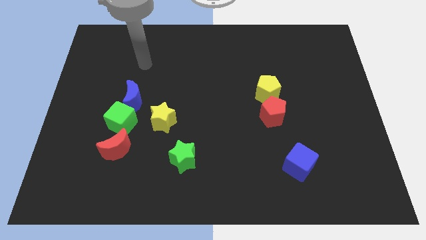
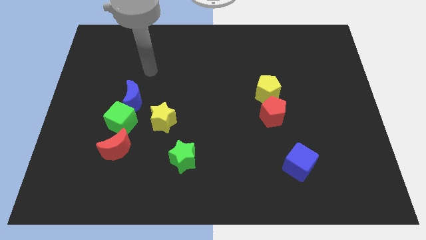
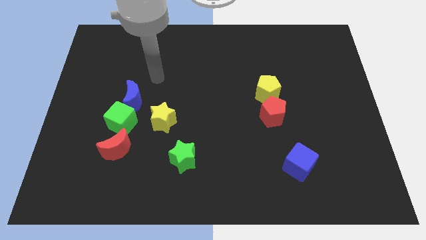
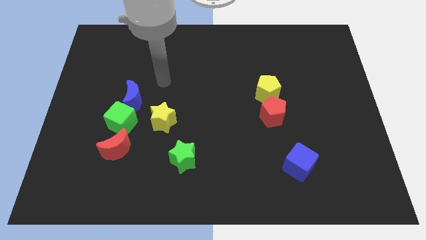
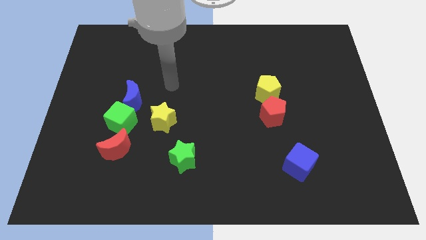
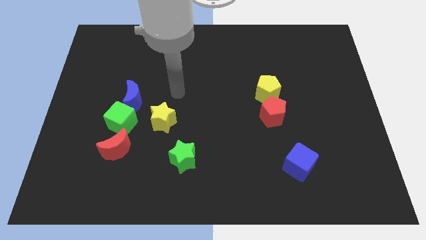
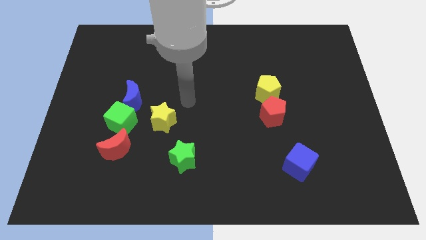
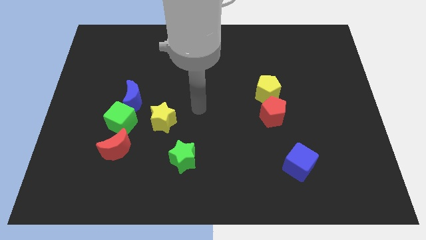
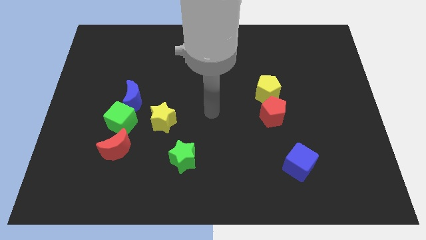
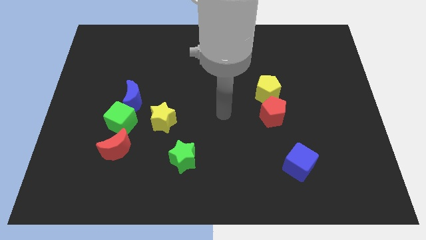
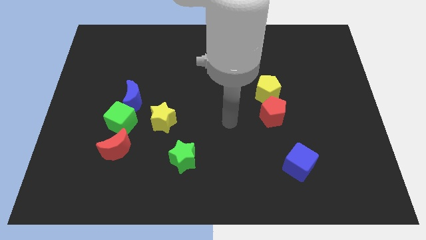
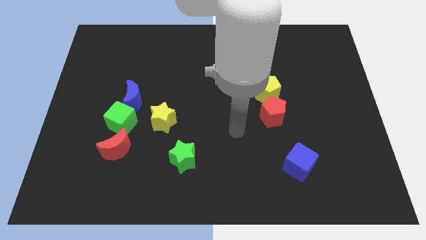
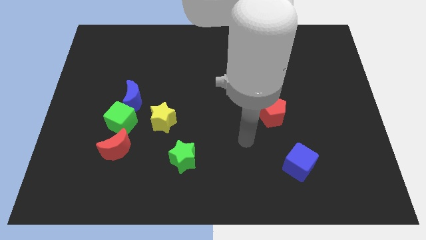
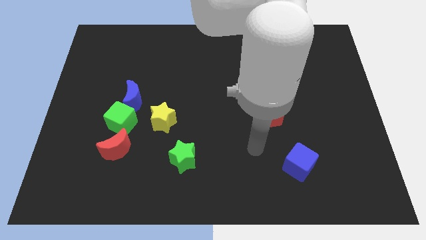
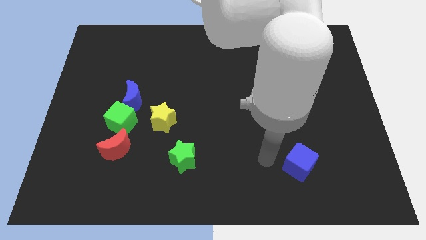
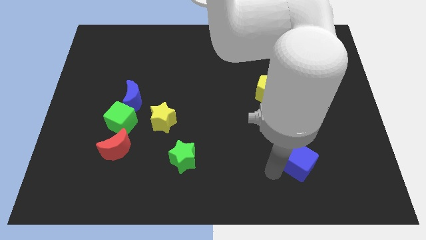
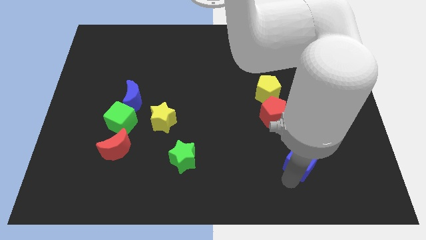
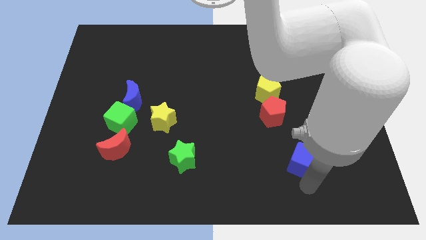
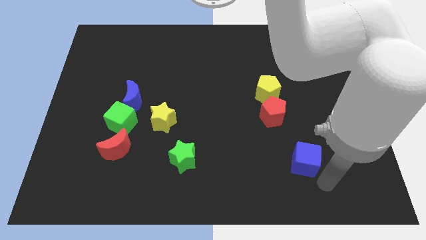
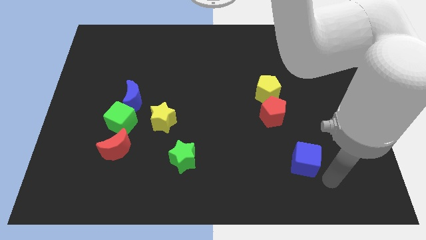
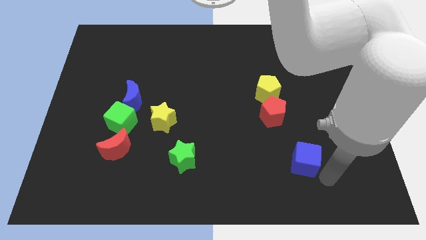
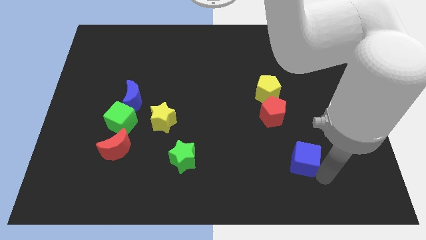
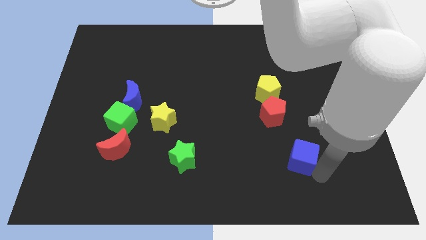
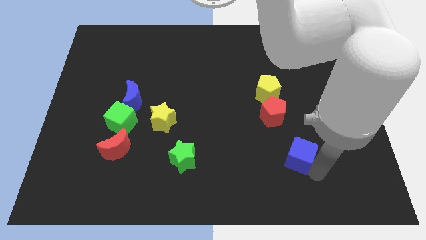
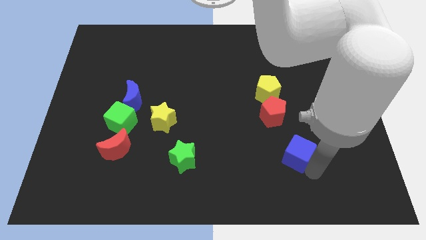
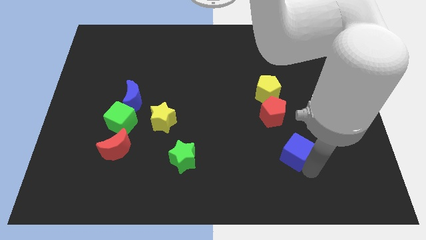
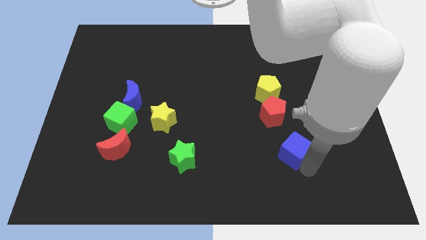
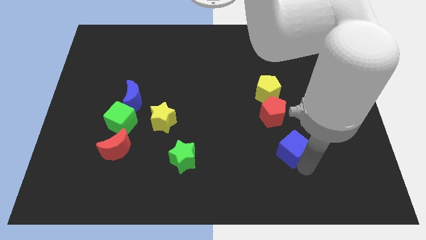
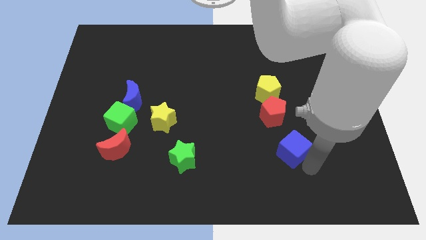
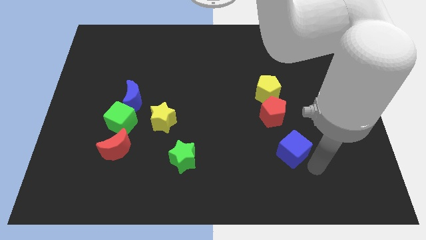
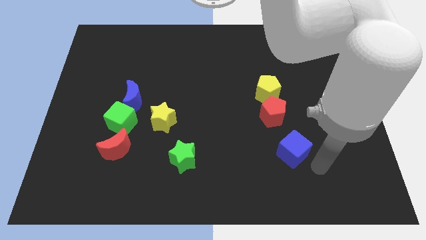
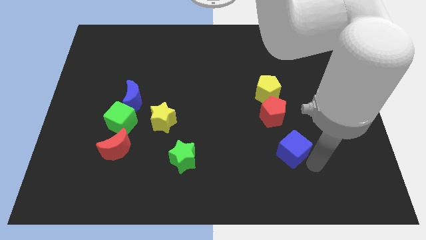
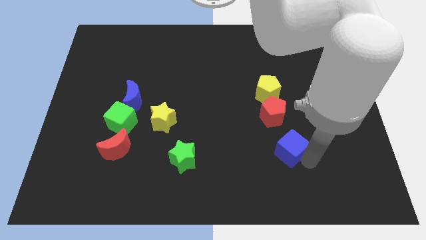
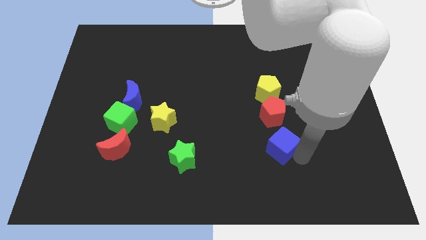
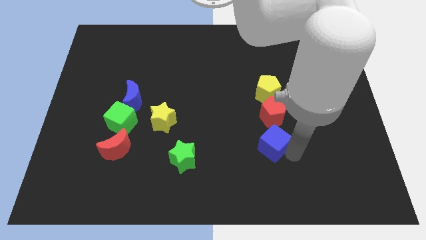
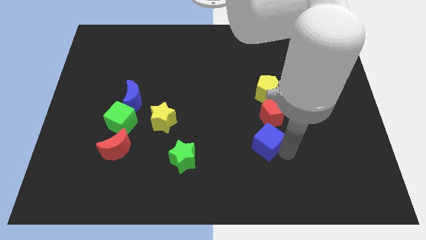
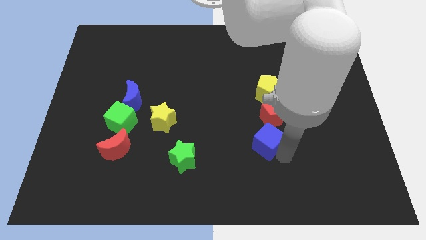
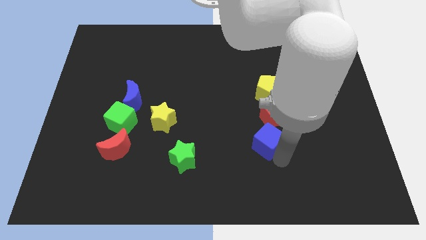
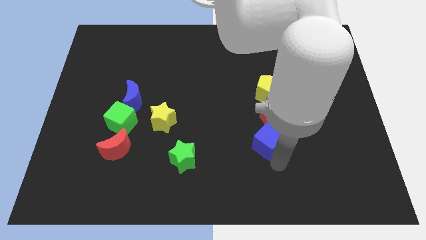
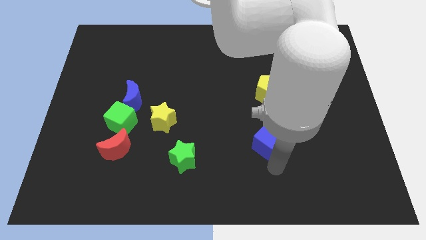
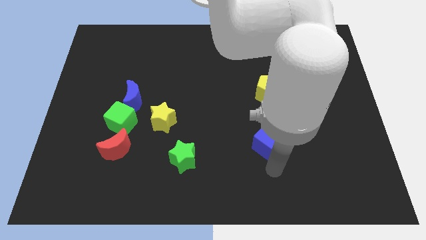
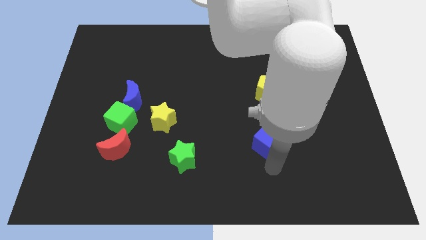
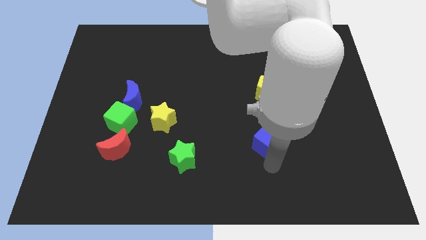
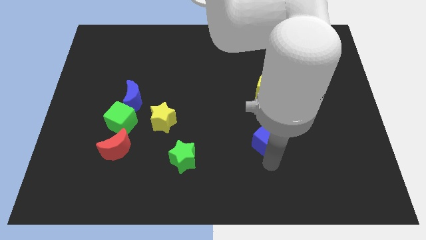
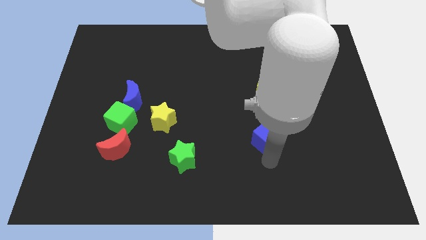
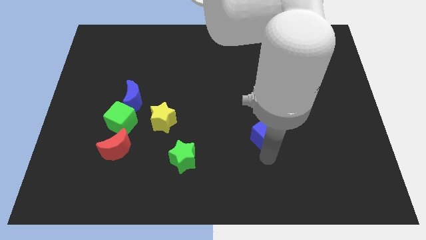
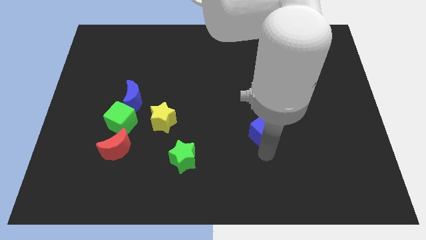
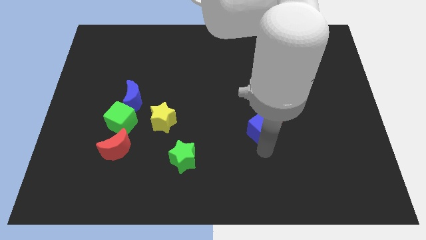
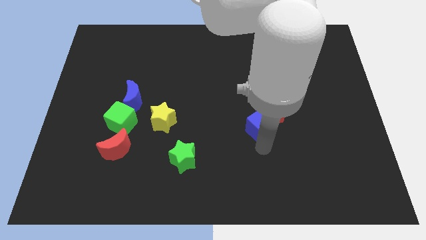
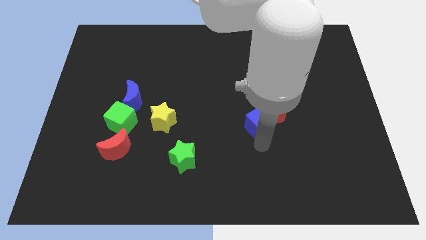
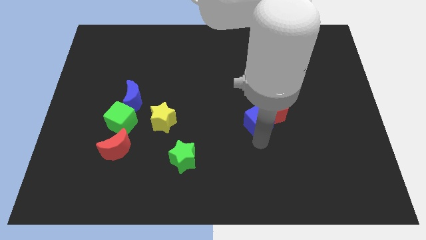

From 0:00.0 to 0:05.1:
slide the blue cube diagonally down and to the left of the yellow pentagon

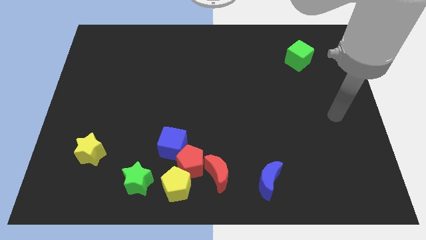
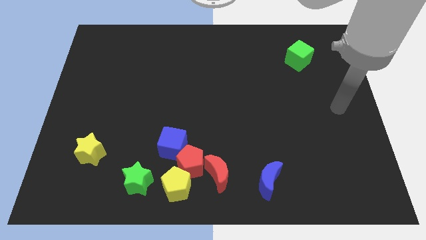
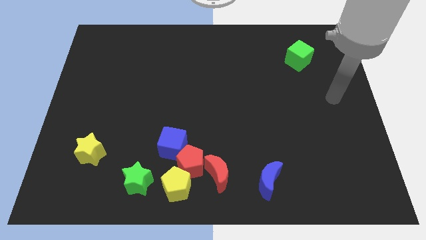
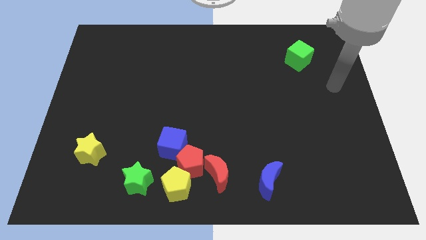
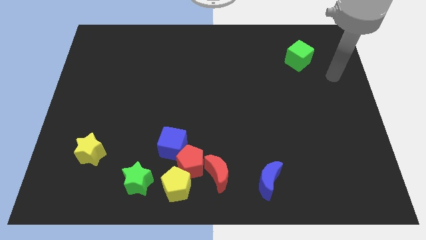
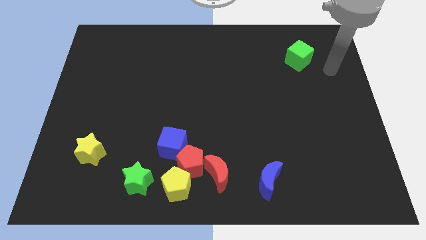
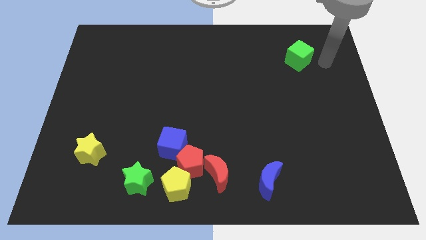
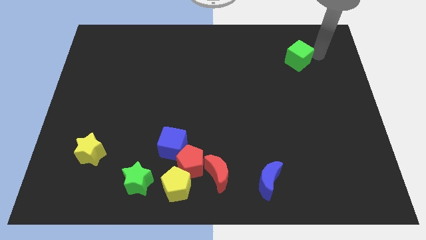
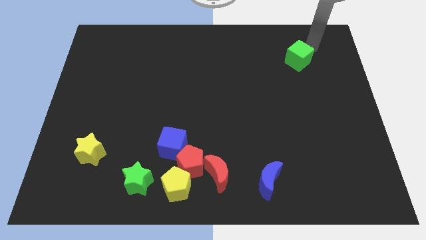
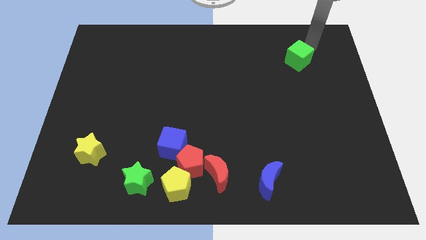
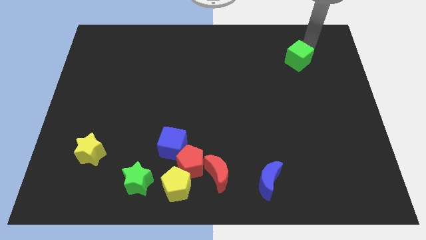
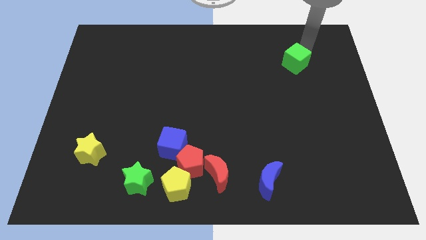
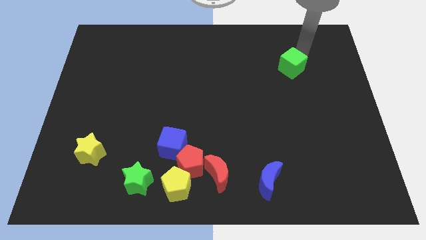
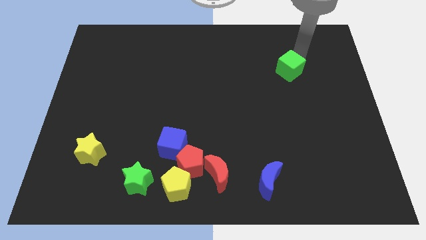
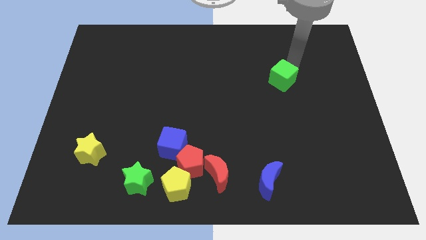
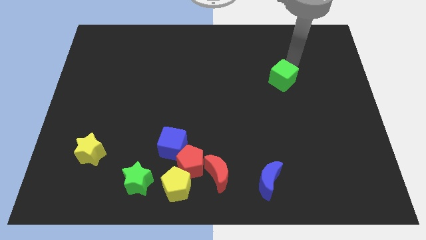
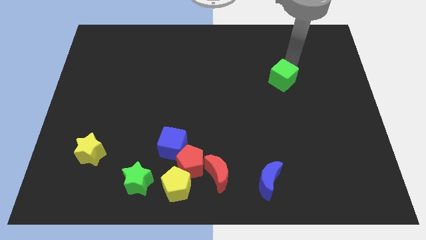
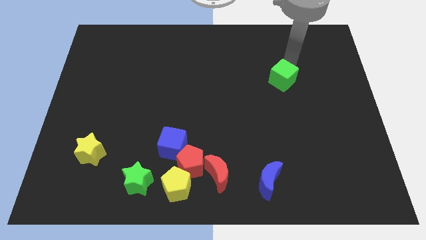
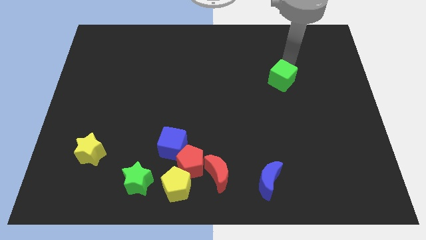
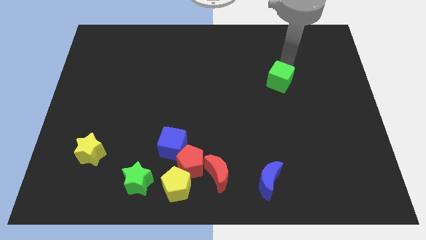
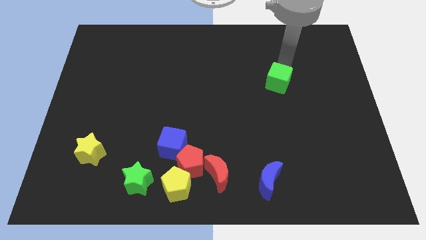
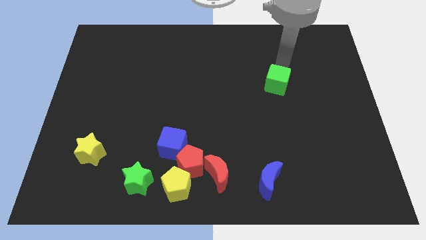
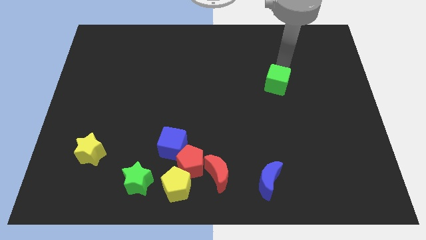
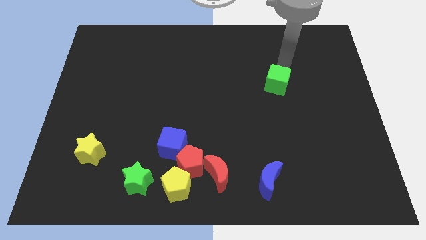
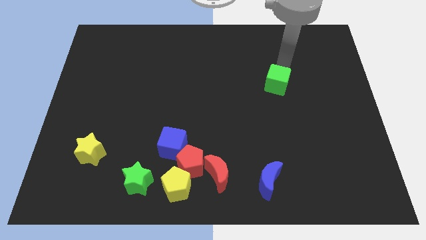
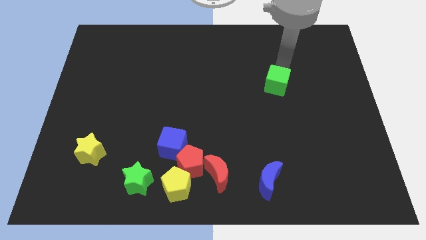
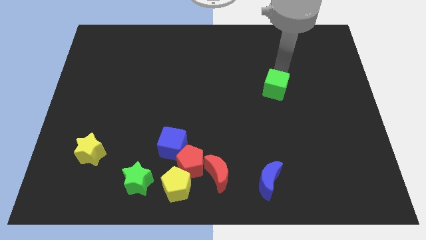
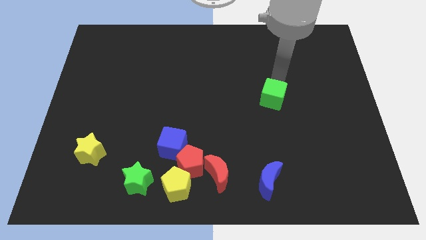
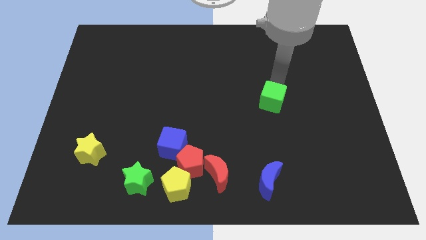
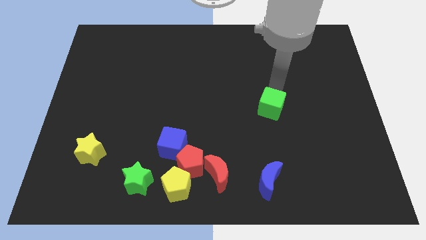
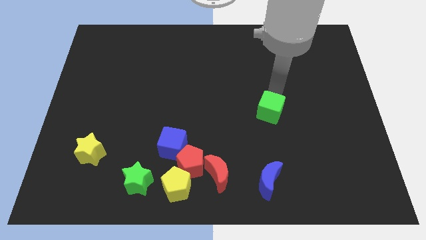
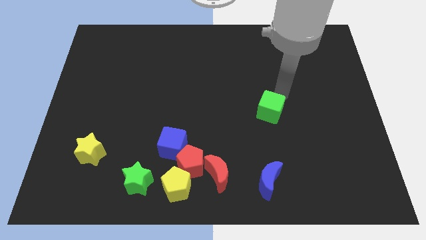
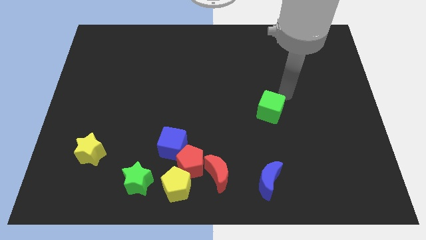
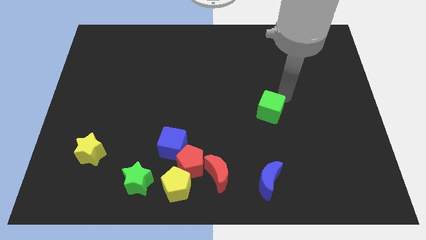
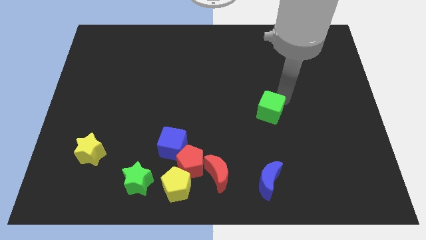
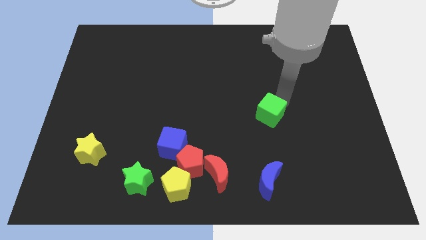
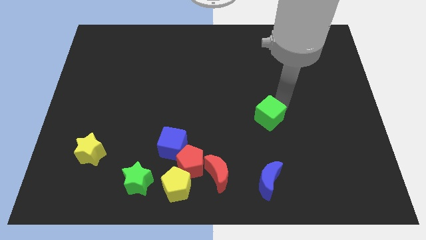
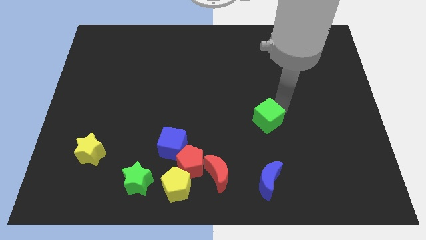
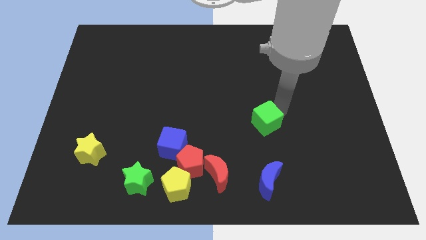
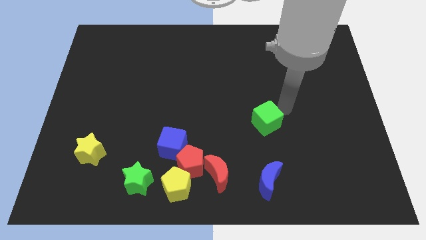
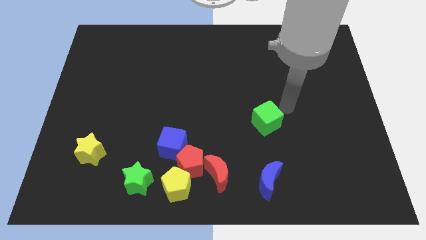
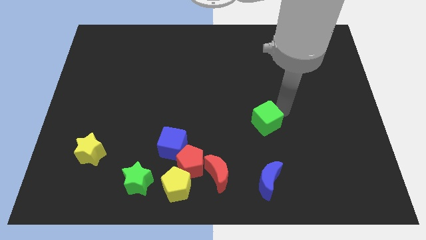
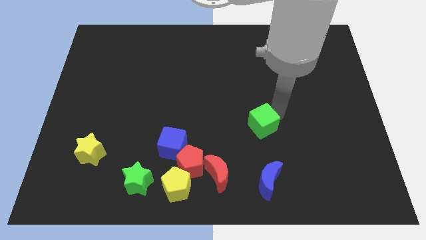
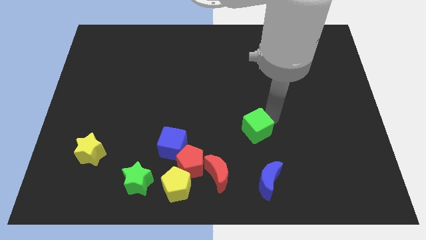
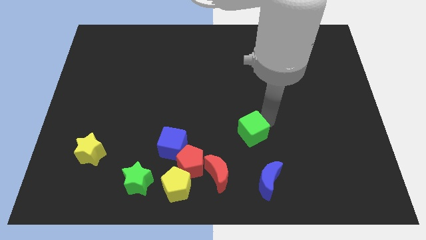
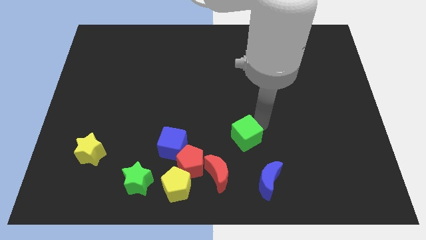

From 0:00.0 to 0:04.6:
put the green cube to the top right side of the red moon
